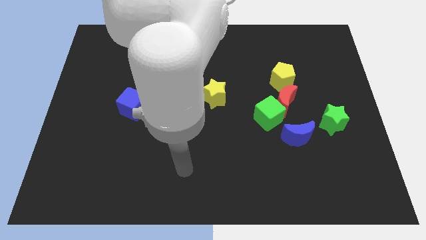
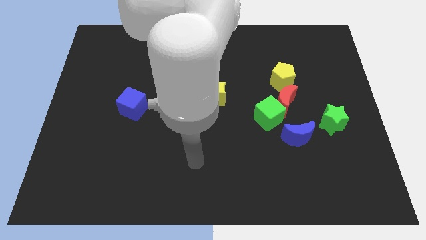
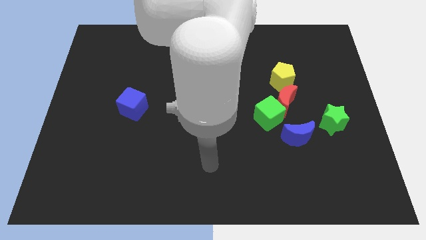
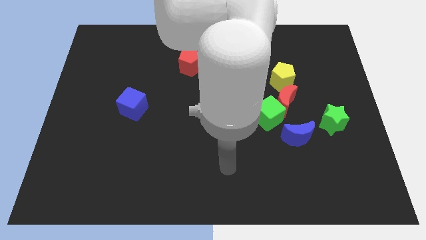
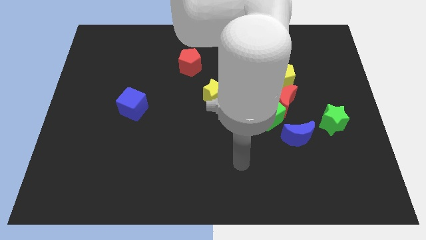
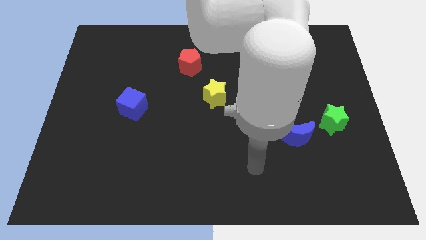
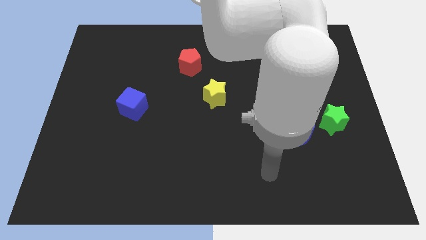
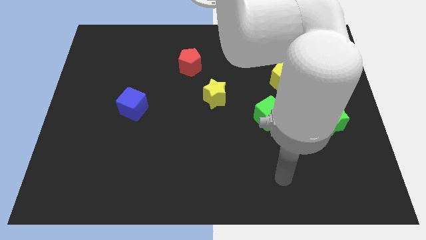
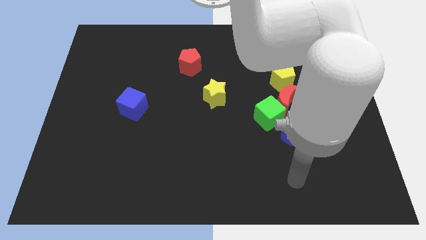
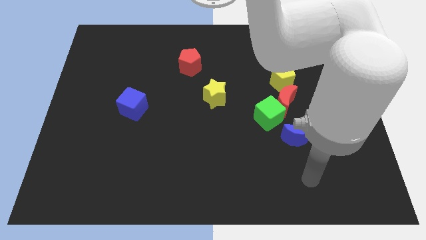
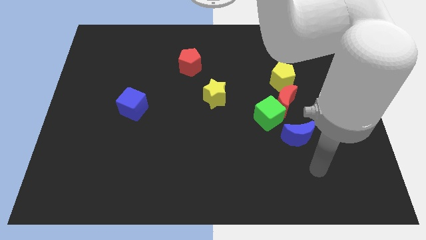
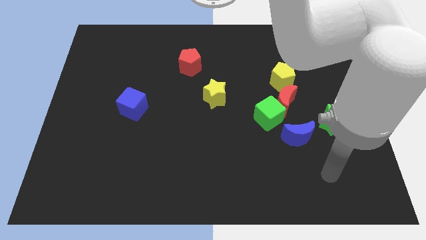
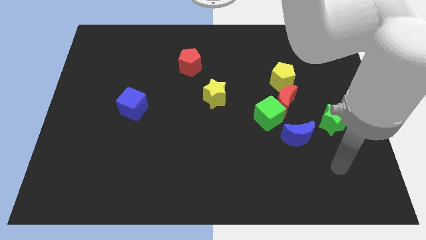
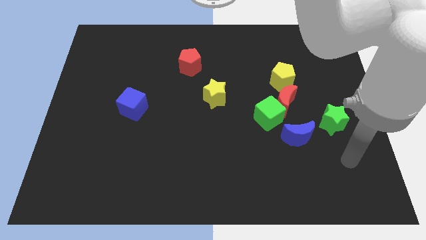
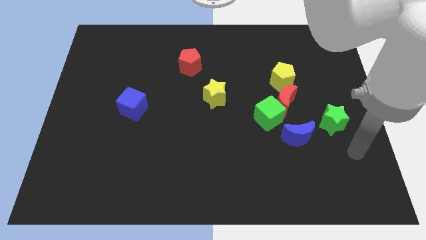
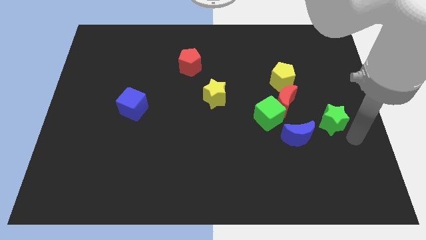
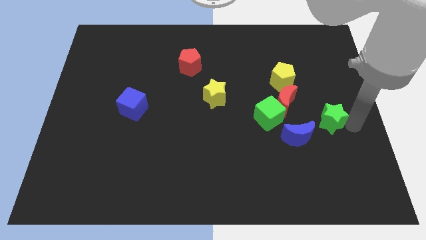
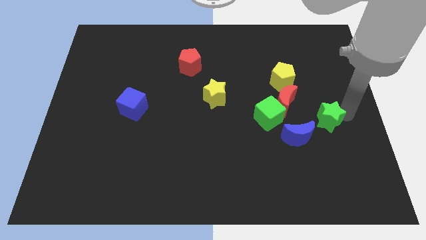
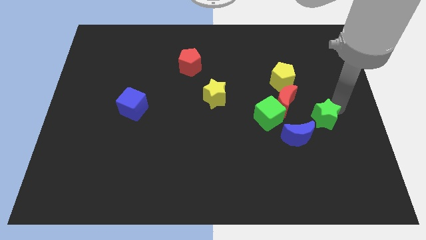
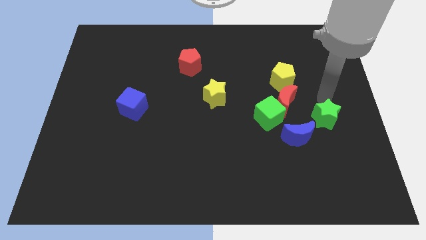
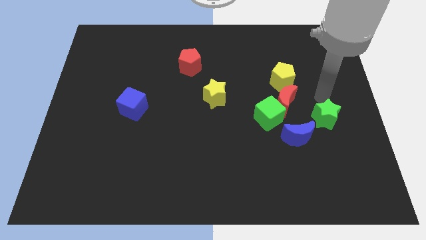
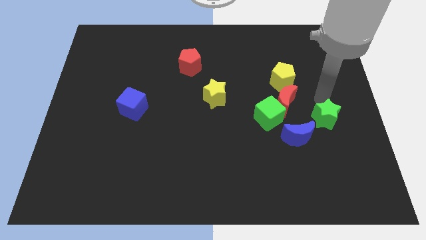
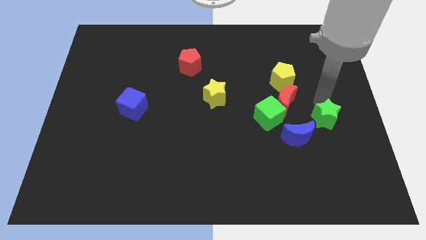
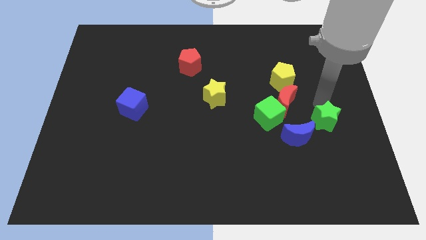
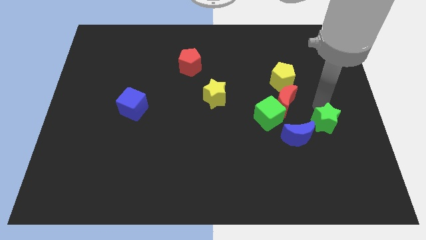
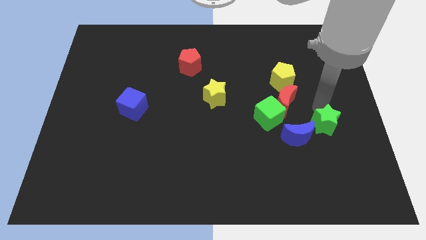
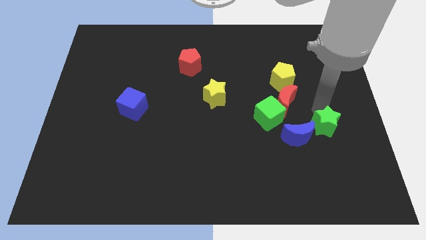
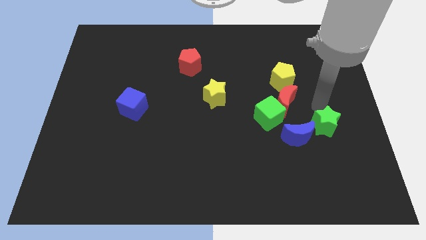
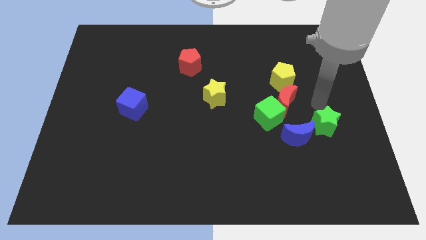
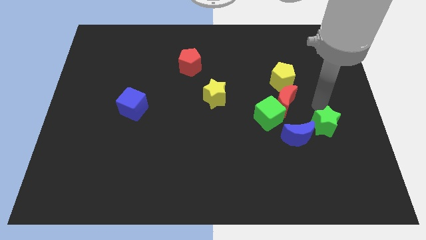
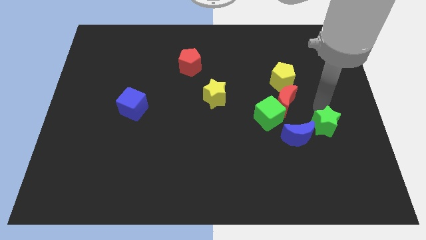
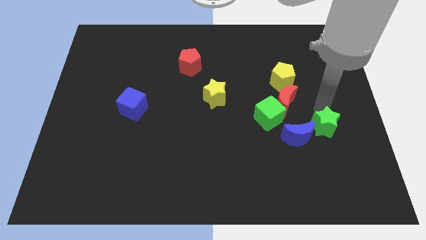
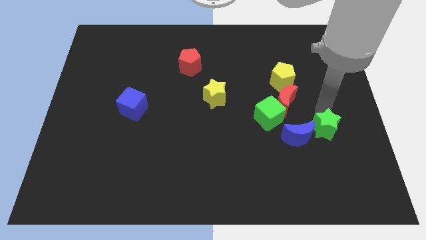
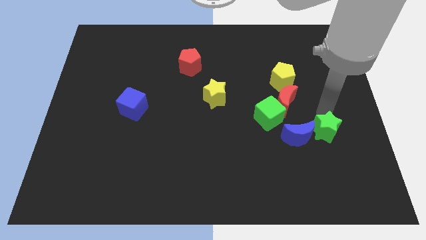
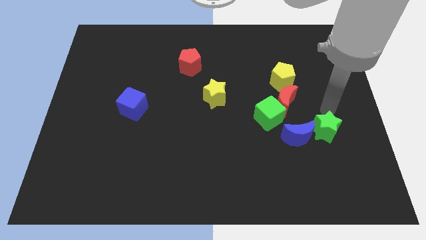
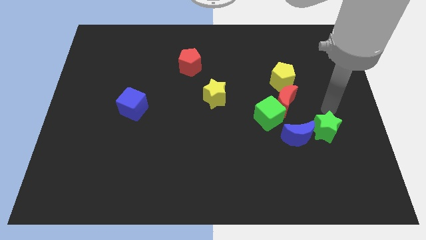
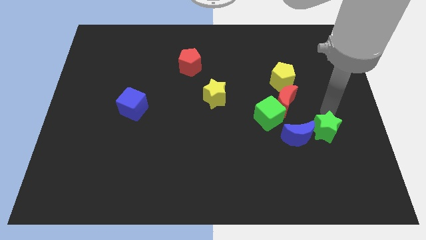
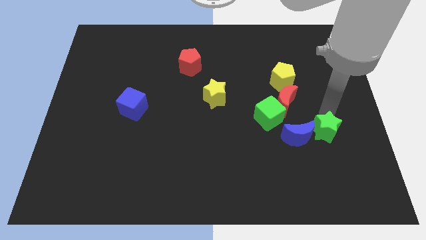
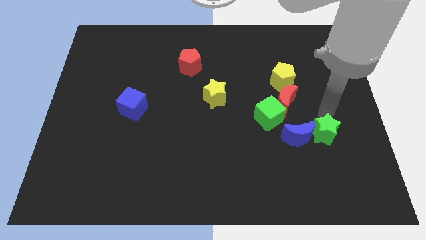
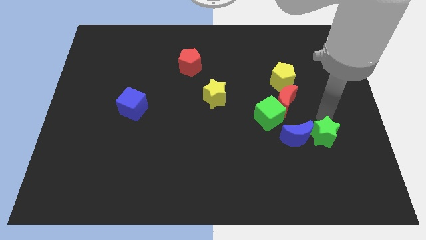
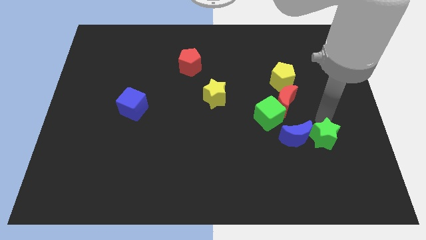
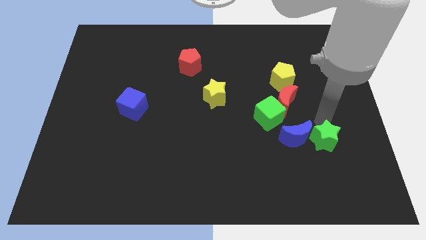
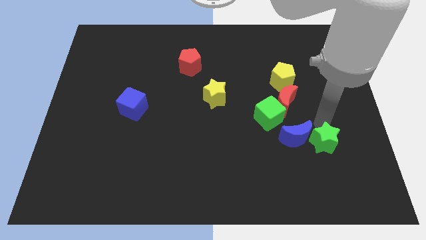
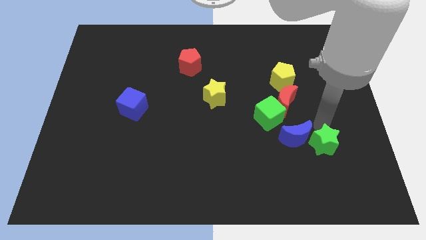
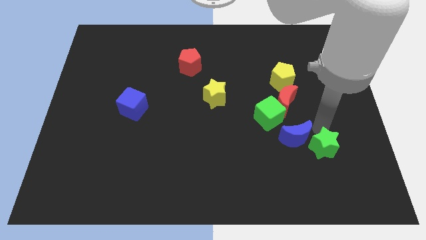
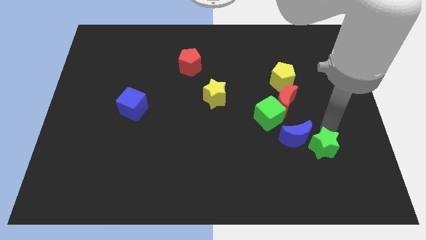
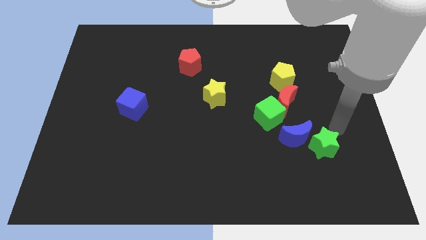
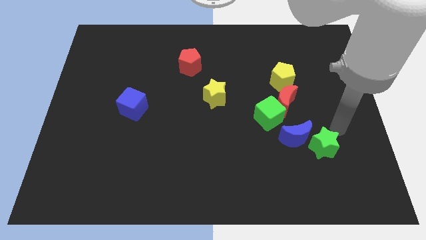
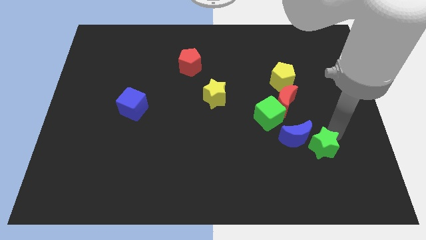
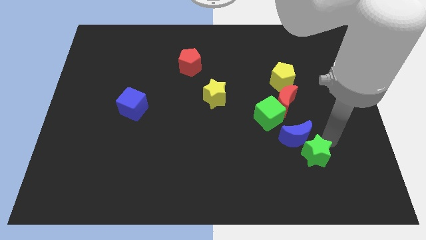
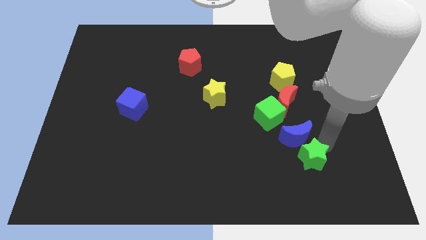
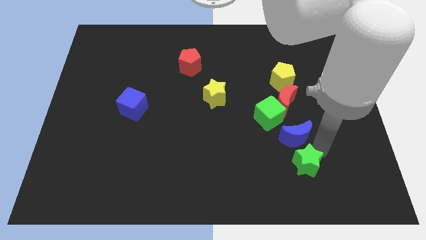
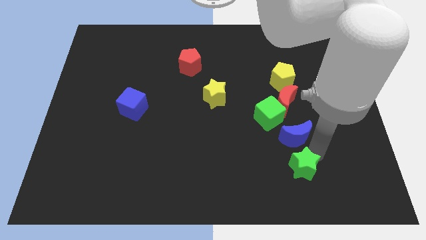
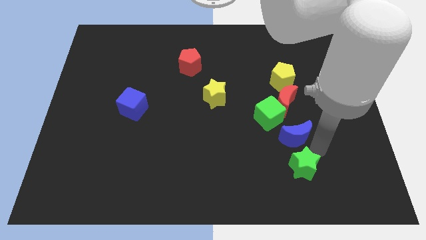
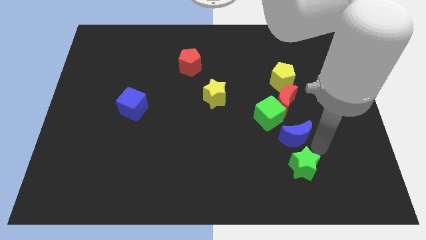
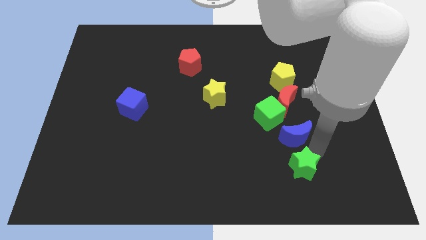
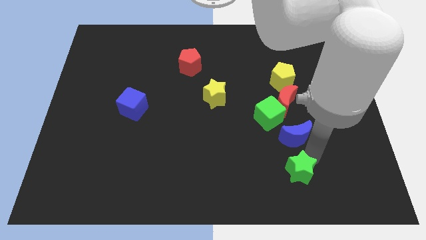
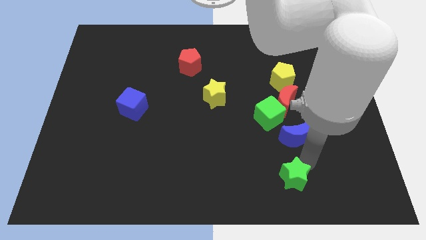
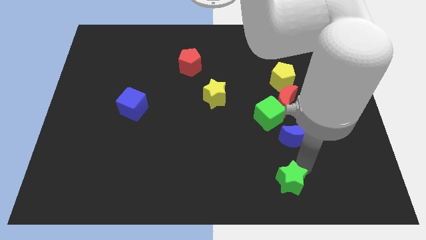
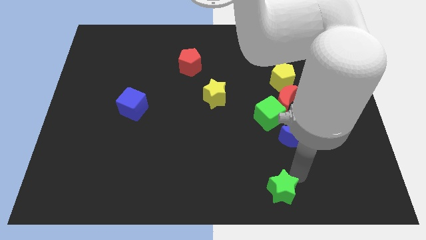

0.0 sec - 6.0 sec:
push the green star to the bottom side
